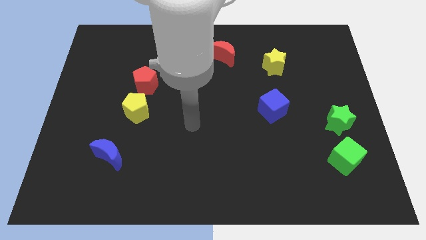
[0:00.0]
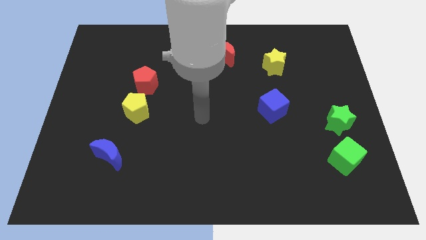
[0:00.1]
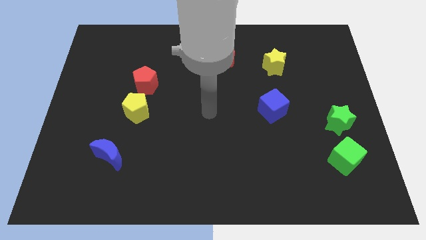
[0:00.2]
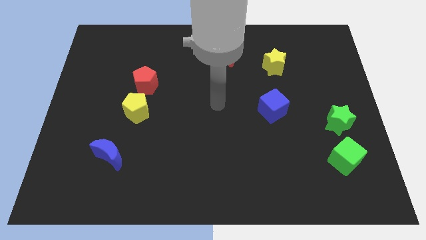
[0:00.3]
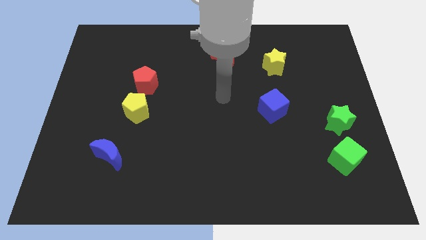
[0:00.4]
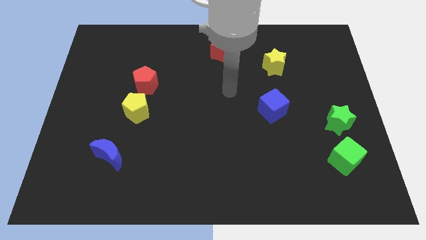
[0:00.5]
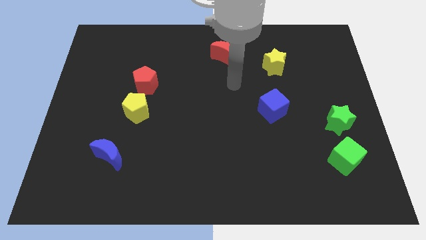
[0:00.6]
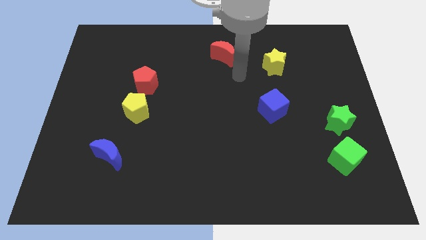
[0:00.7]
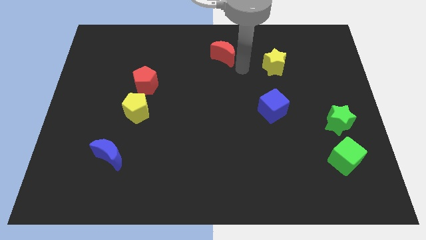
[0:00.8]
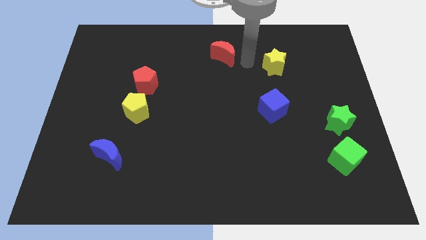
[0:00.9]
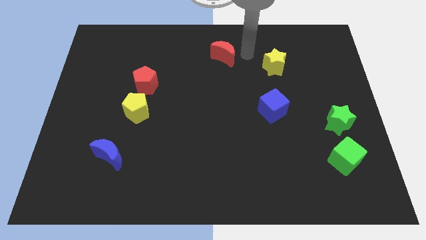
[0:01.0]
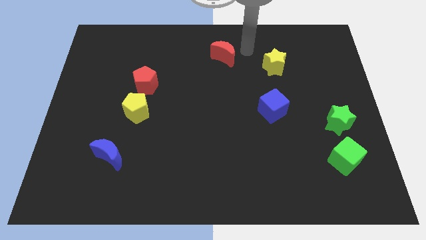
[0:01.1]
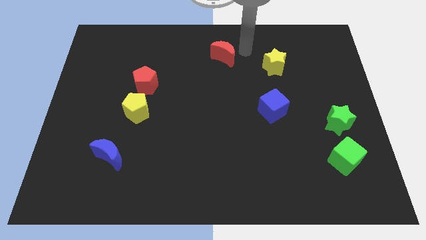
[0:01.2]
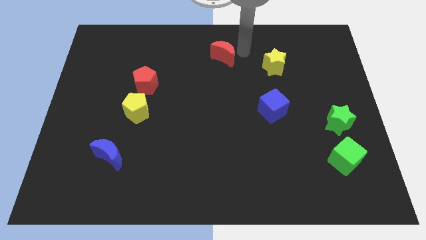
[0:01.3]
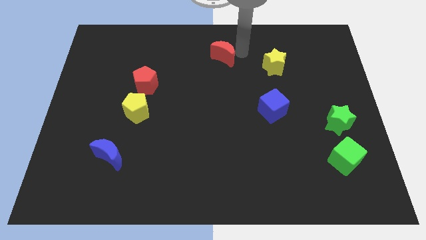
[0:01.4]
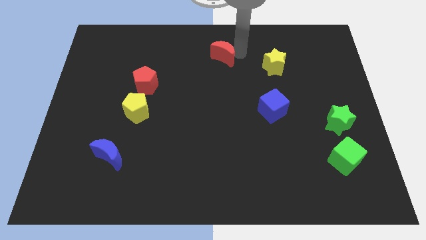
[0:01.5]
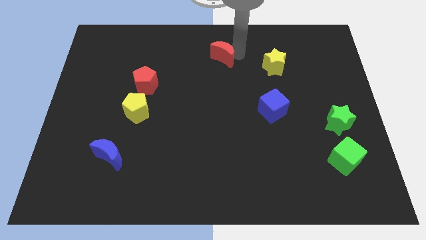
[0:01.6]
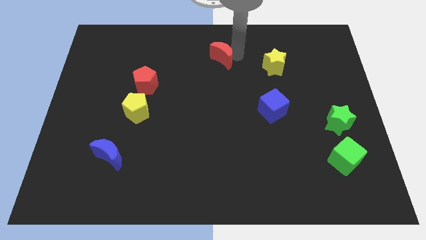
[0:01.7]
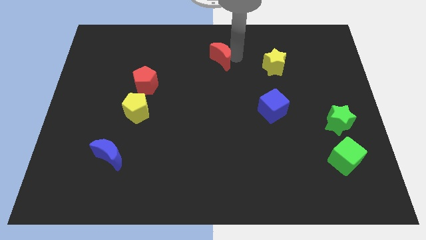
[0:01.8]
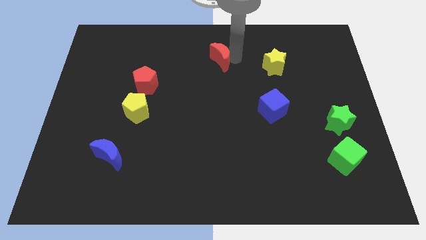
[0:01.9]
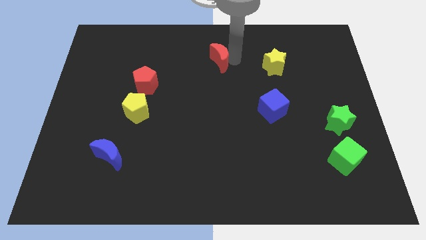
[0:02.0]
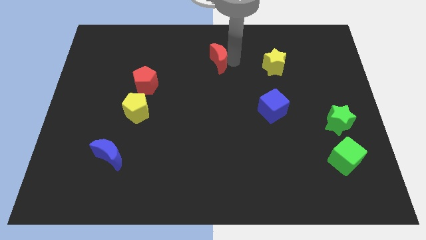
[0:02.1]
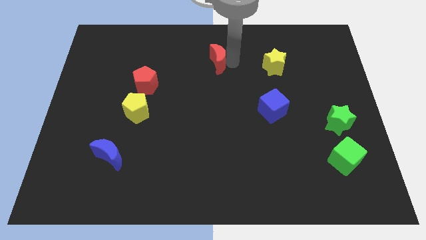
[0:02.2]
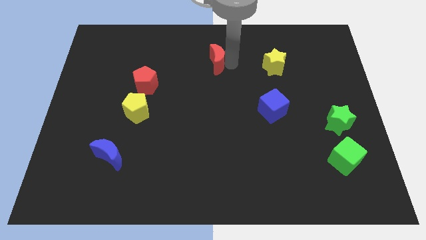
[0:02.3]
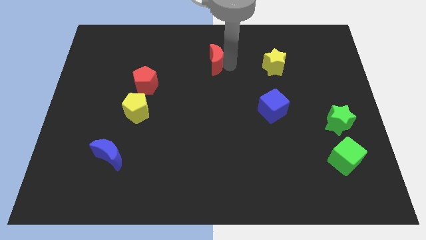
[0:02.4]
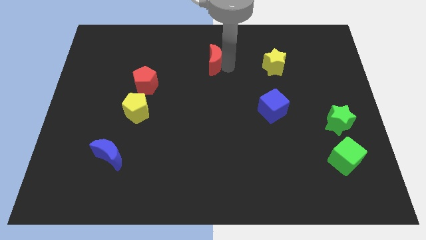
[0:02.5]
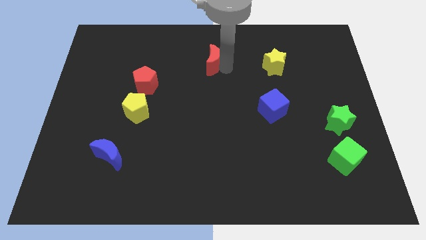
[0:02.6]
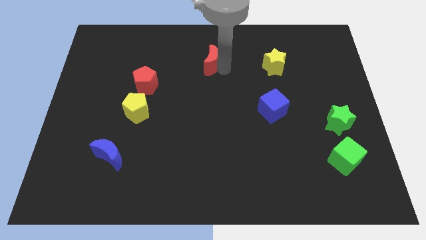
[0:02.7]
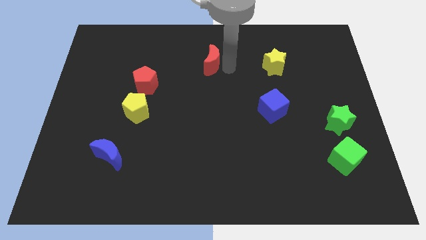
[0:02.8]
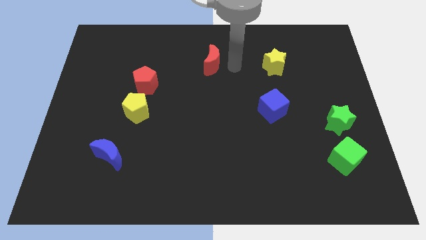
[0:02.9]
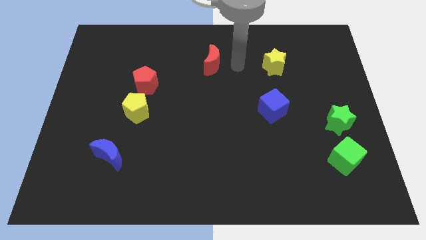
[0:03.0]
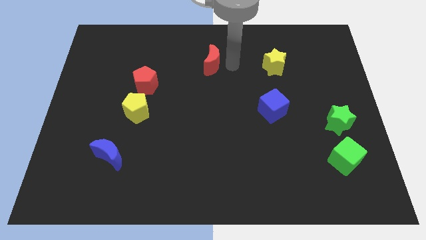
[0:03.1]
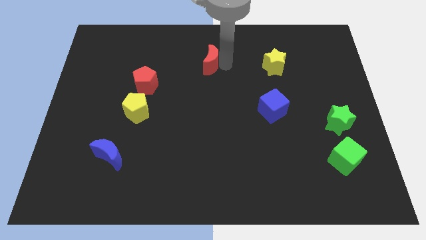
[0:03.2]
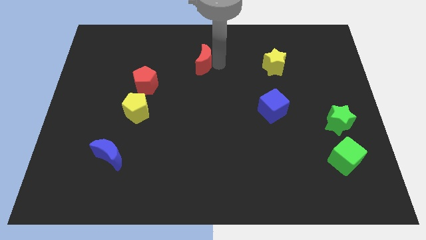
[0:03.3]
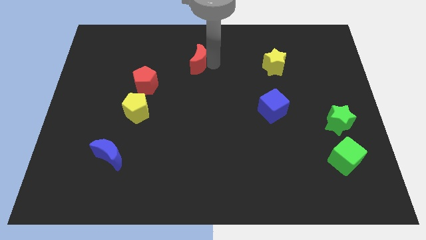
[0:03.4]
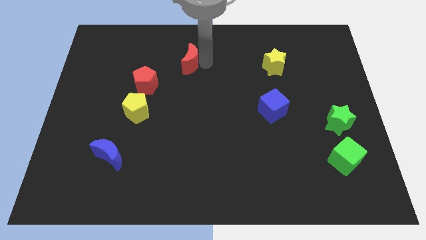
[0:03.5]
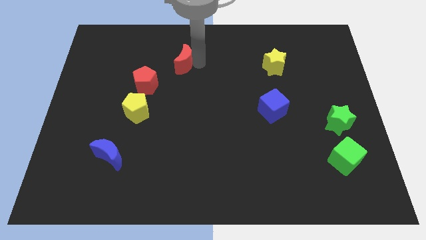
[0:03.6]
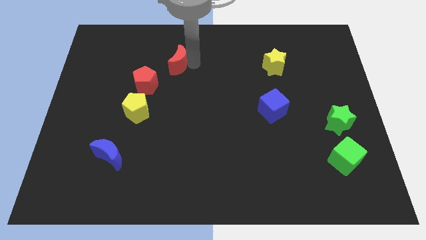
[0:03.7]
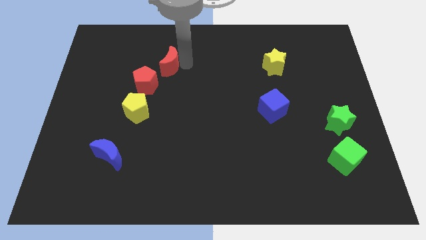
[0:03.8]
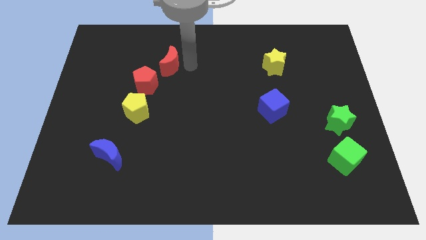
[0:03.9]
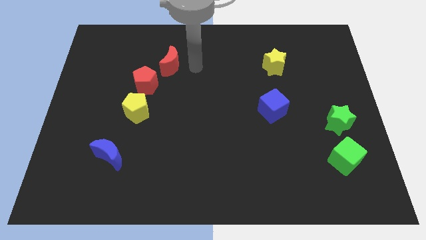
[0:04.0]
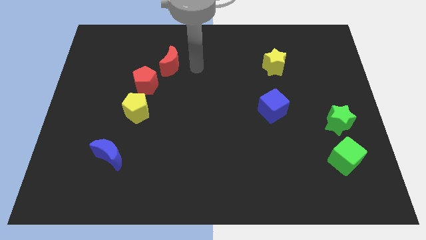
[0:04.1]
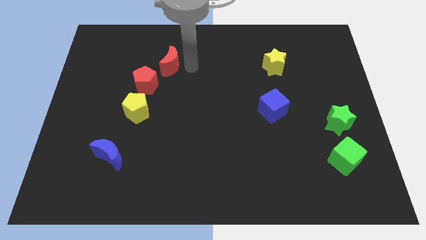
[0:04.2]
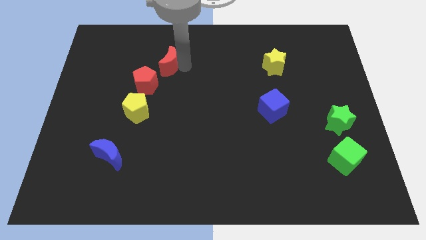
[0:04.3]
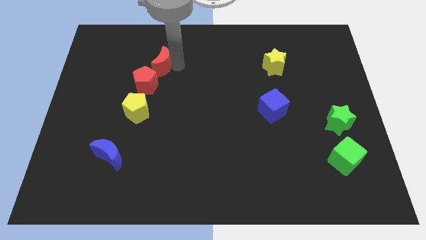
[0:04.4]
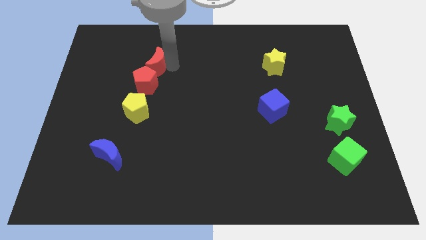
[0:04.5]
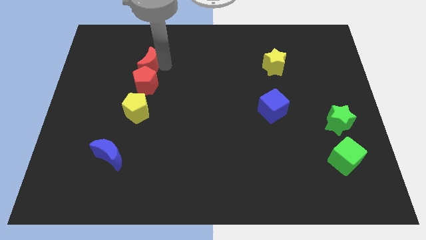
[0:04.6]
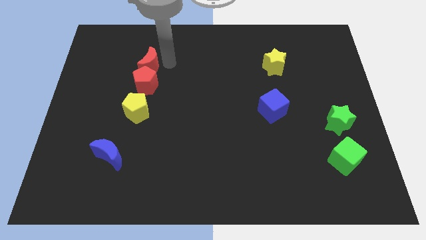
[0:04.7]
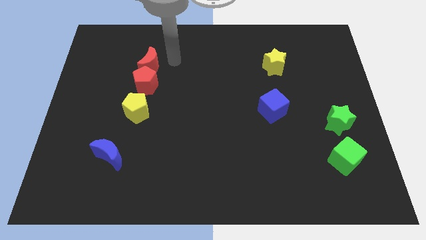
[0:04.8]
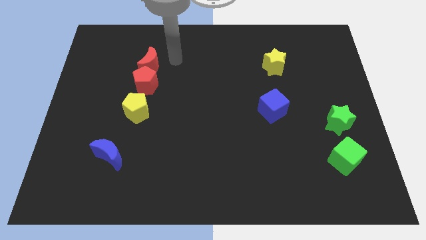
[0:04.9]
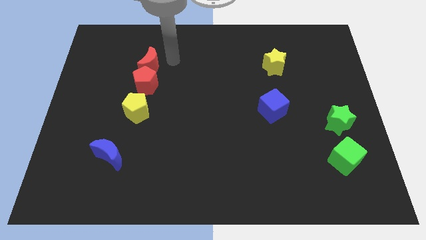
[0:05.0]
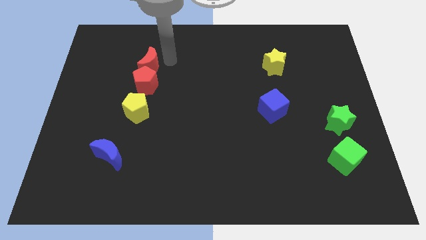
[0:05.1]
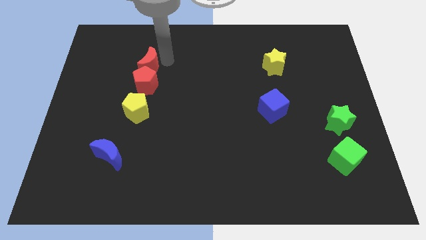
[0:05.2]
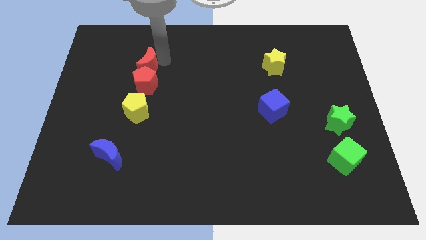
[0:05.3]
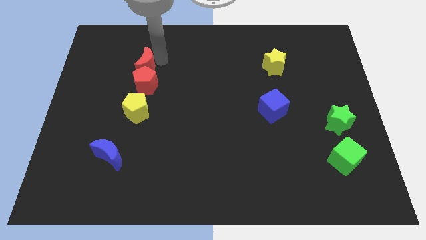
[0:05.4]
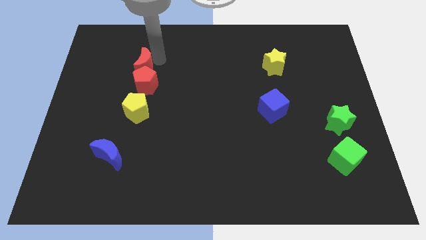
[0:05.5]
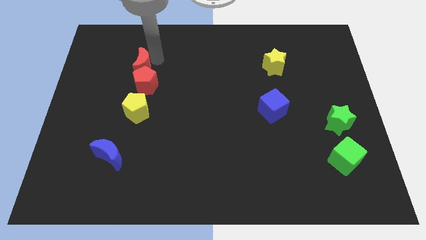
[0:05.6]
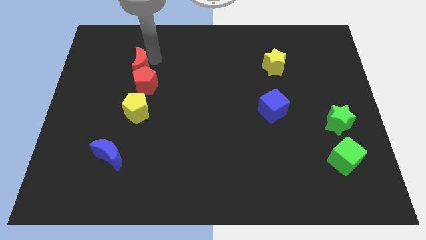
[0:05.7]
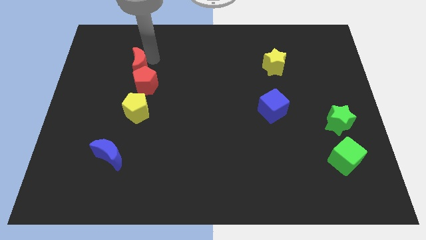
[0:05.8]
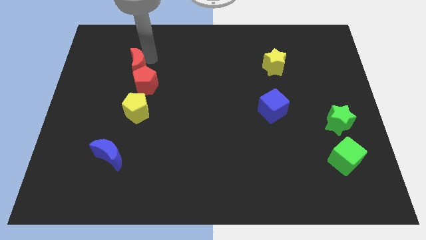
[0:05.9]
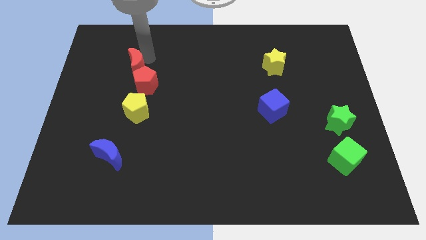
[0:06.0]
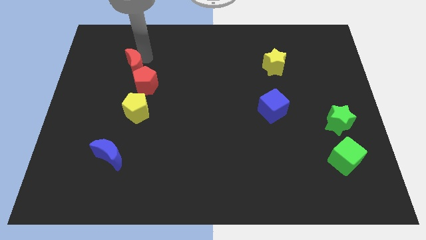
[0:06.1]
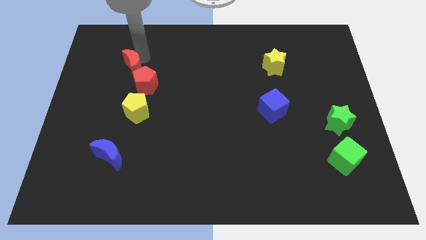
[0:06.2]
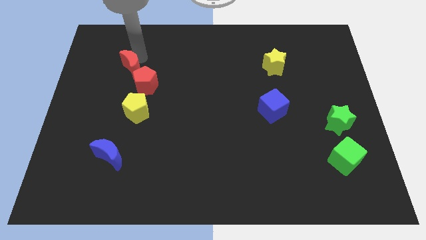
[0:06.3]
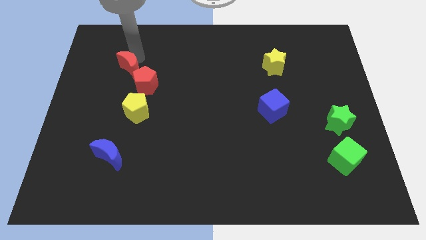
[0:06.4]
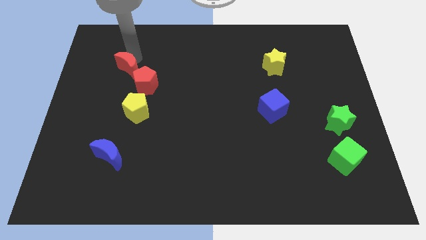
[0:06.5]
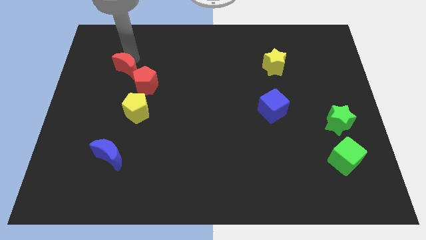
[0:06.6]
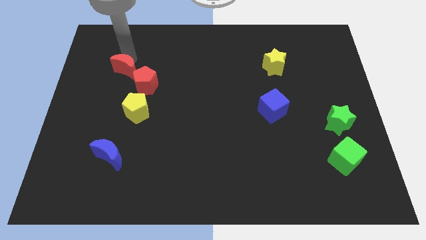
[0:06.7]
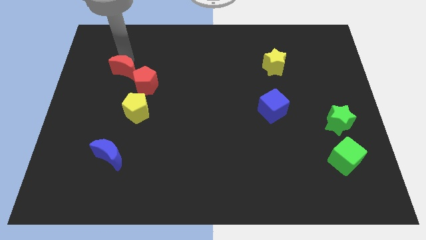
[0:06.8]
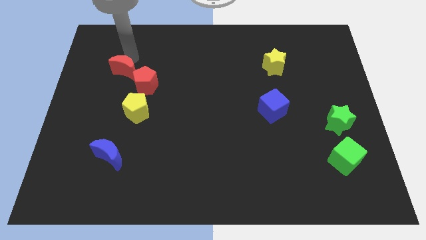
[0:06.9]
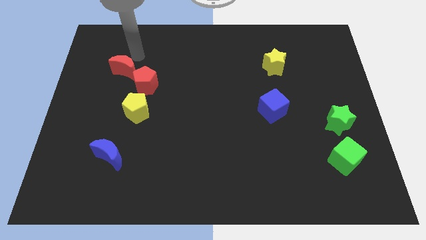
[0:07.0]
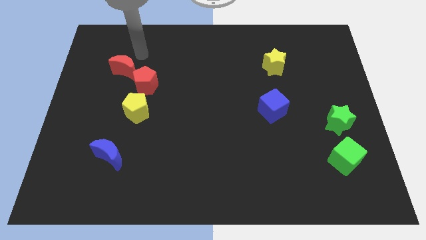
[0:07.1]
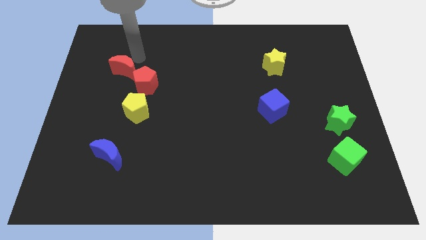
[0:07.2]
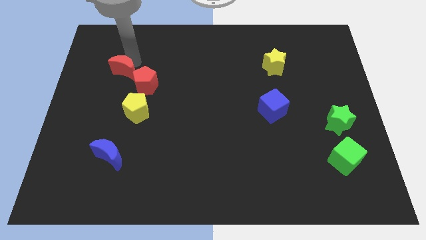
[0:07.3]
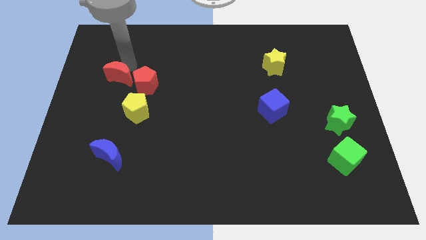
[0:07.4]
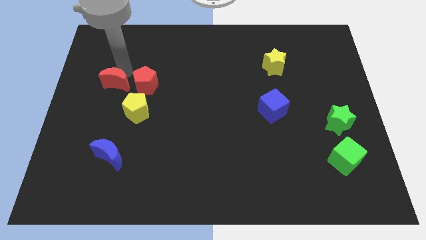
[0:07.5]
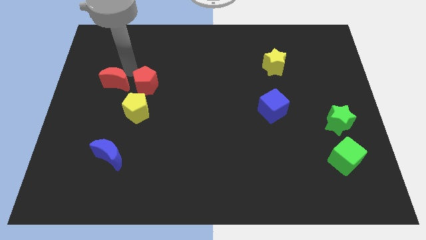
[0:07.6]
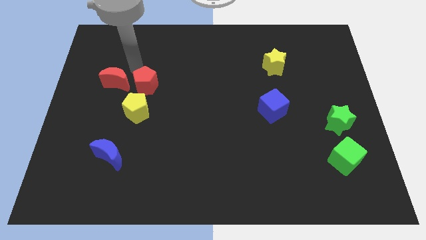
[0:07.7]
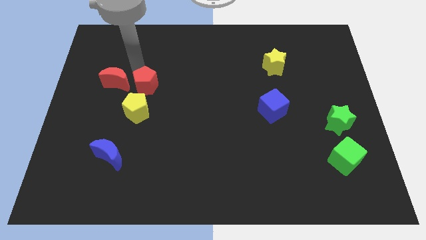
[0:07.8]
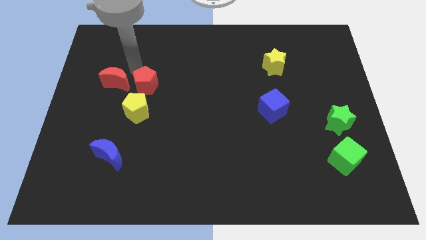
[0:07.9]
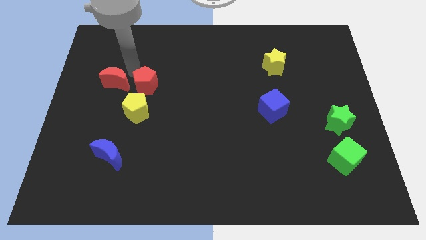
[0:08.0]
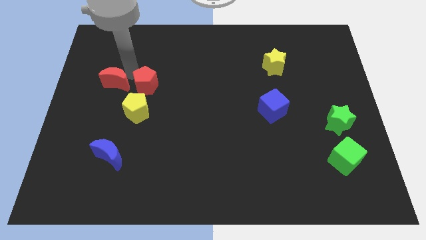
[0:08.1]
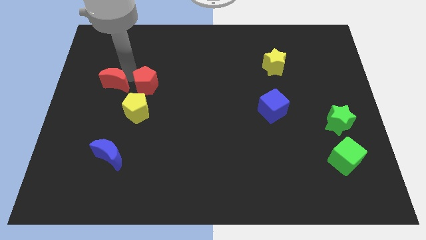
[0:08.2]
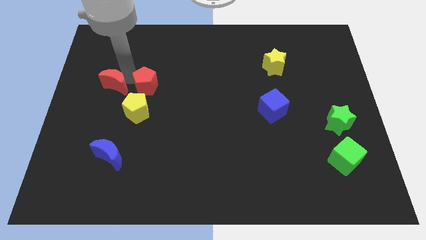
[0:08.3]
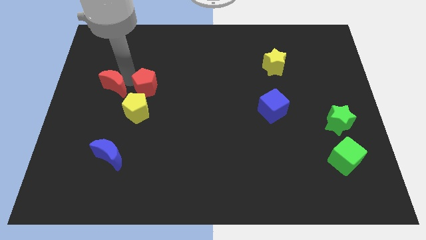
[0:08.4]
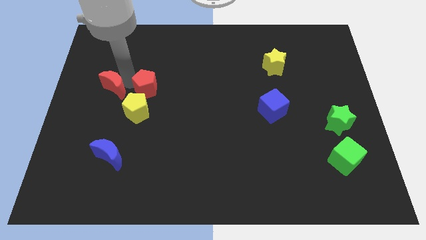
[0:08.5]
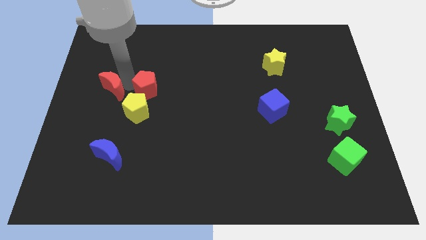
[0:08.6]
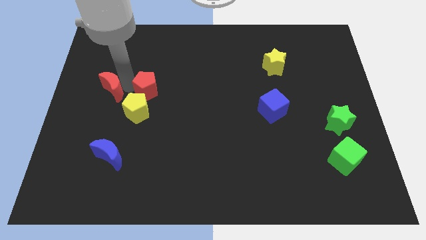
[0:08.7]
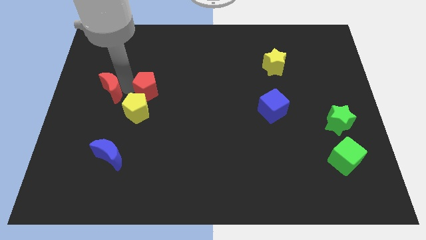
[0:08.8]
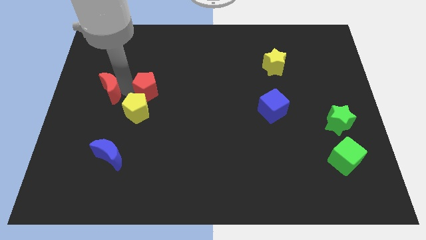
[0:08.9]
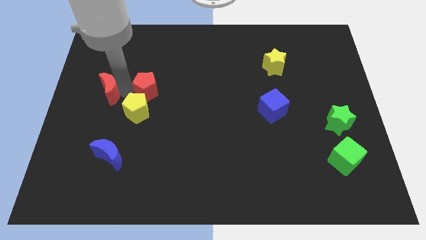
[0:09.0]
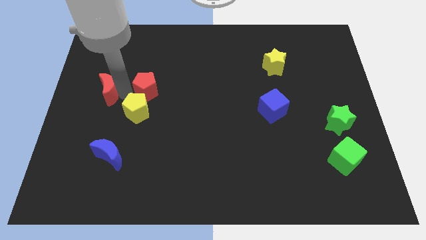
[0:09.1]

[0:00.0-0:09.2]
slide the red moon to the left side of the board
